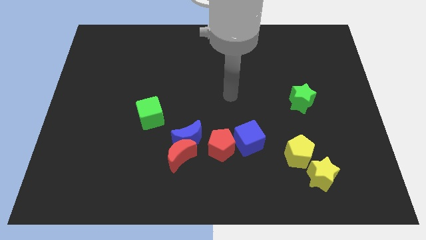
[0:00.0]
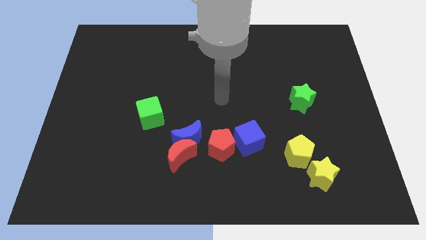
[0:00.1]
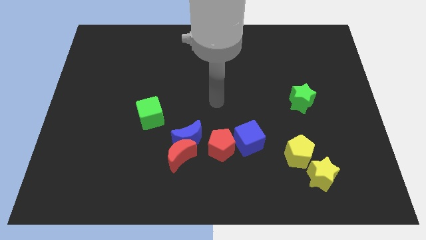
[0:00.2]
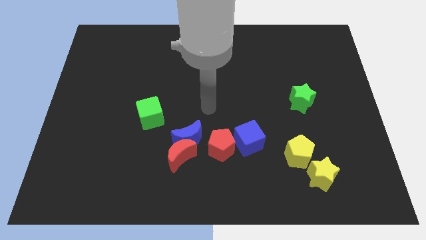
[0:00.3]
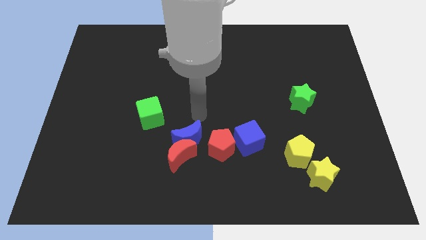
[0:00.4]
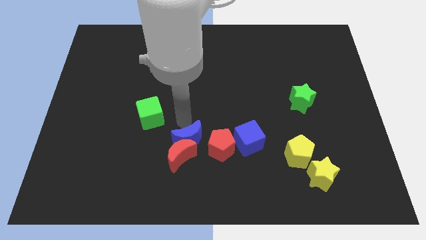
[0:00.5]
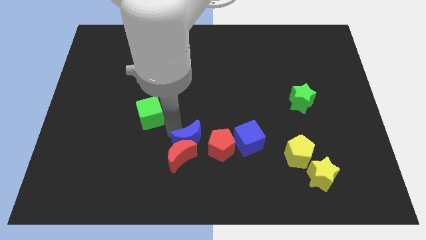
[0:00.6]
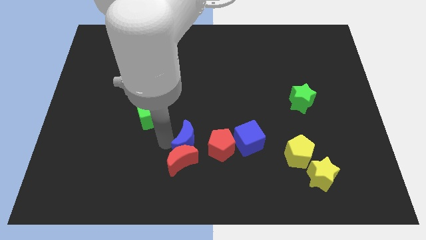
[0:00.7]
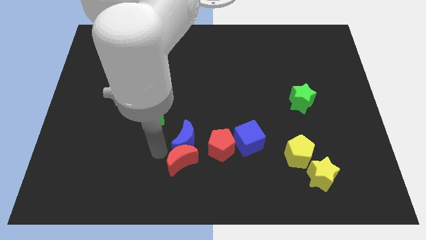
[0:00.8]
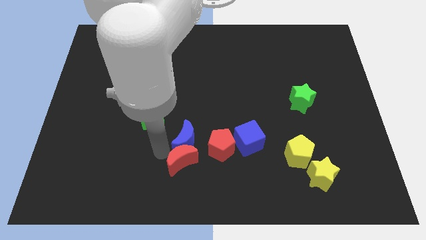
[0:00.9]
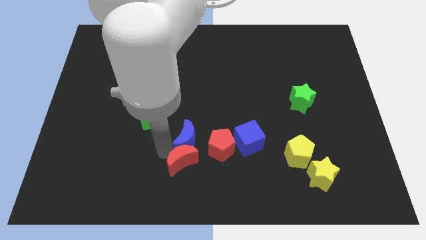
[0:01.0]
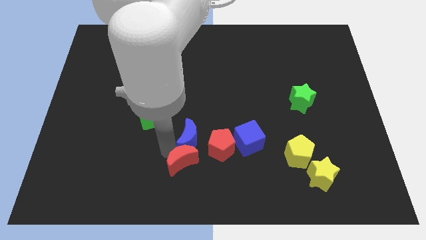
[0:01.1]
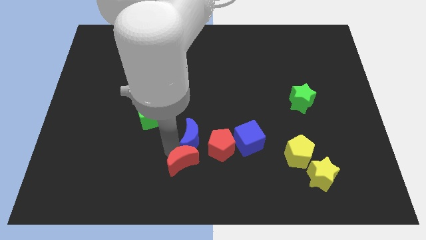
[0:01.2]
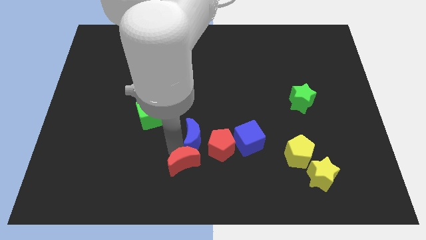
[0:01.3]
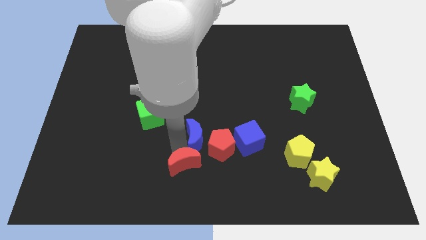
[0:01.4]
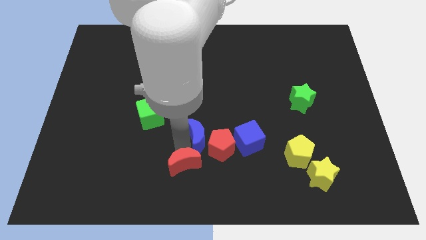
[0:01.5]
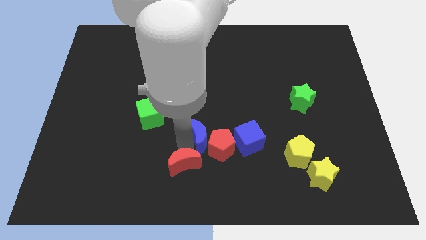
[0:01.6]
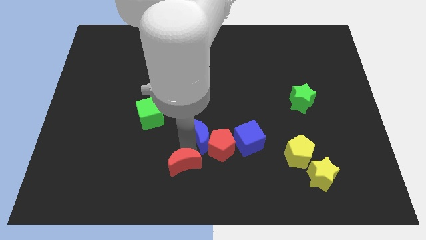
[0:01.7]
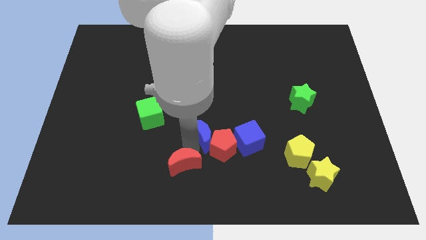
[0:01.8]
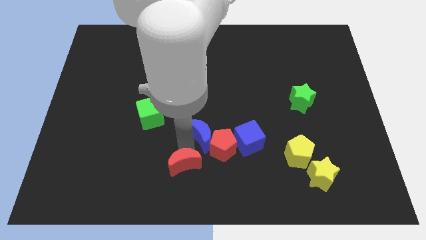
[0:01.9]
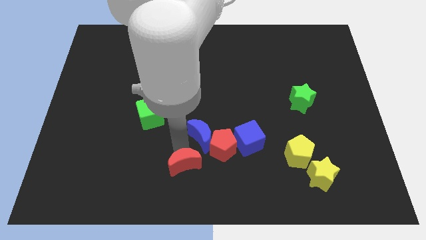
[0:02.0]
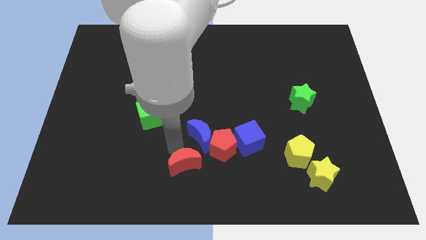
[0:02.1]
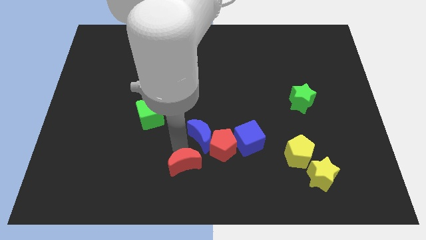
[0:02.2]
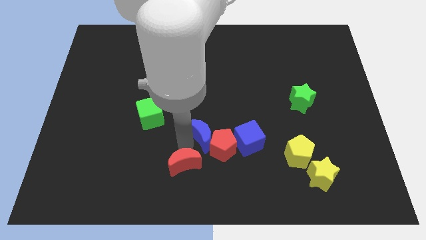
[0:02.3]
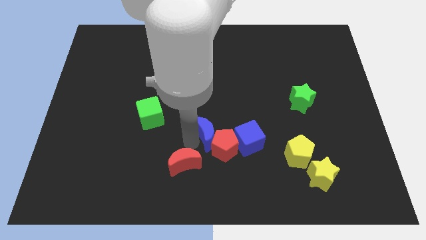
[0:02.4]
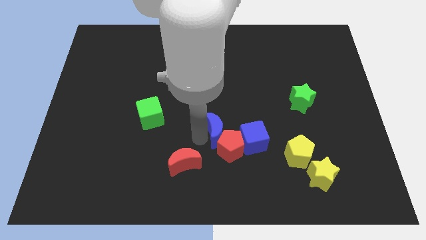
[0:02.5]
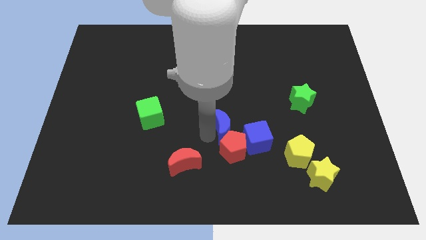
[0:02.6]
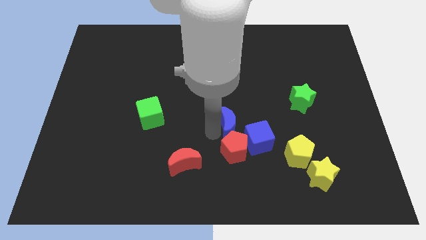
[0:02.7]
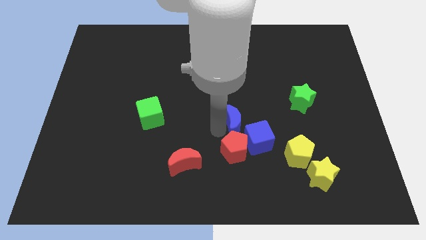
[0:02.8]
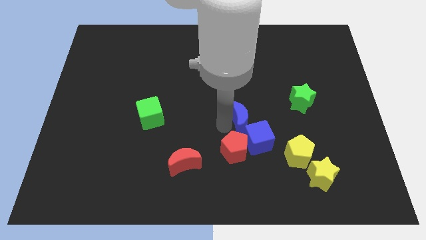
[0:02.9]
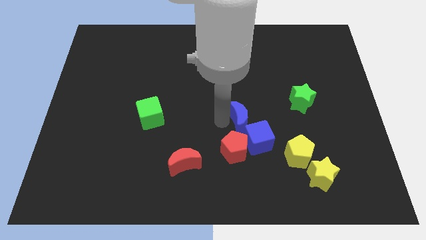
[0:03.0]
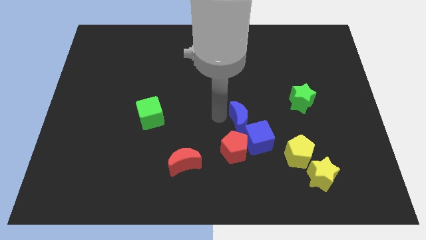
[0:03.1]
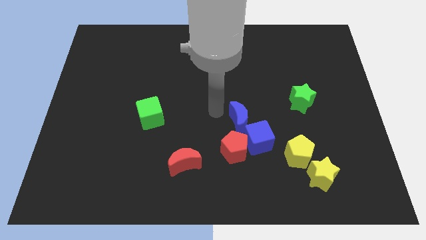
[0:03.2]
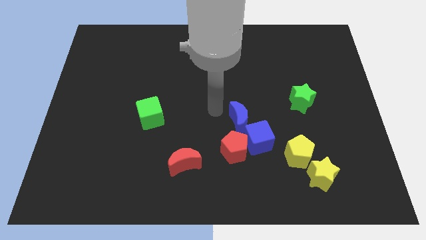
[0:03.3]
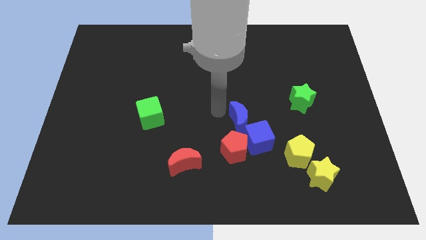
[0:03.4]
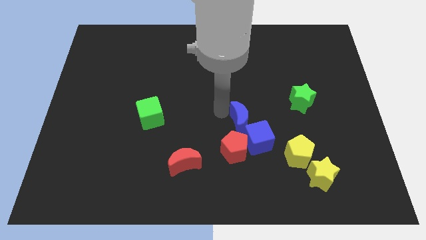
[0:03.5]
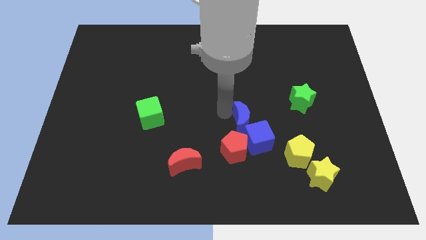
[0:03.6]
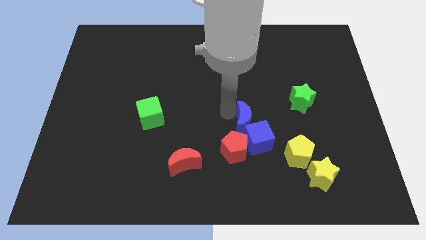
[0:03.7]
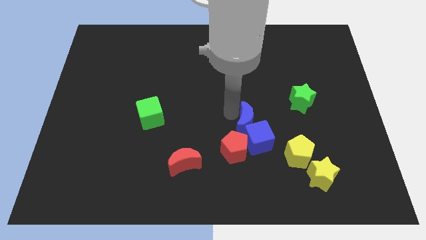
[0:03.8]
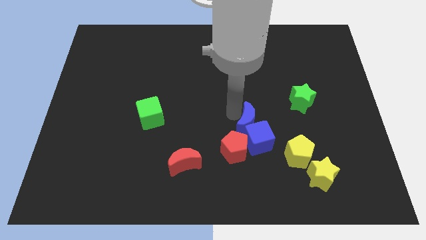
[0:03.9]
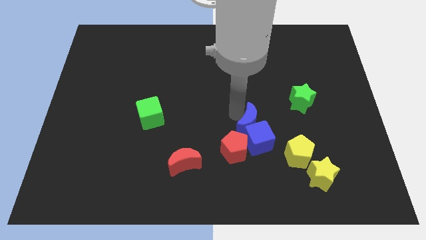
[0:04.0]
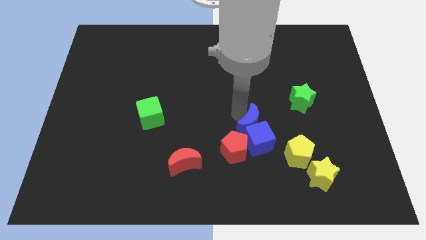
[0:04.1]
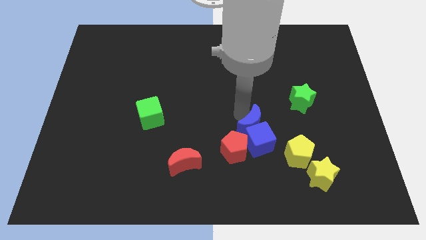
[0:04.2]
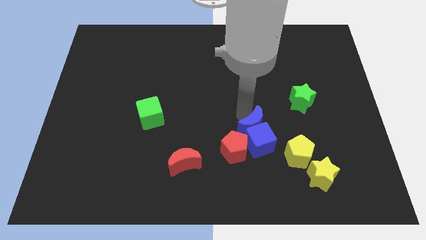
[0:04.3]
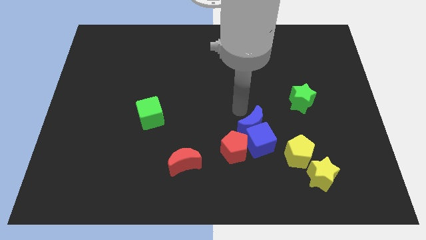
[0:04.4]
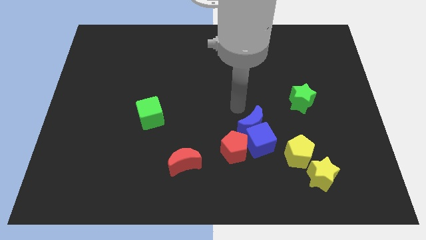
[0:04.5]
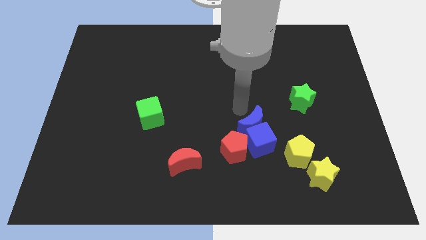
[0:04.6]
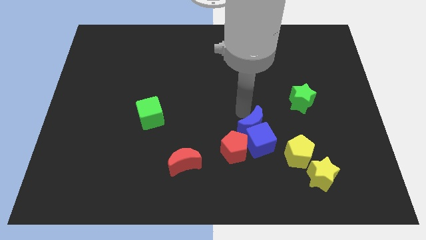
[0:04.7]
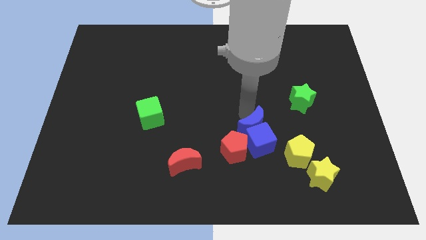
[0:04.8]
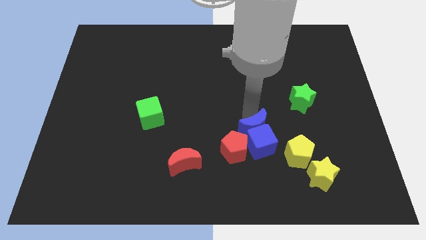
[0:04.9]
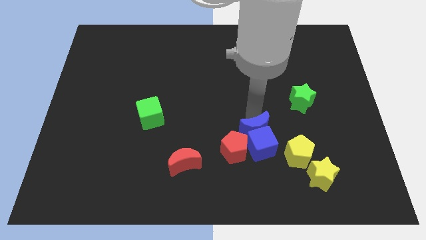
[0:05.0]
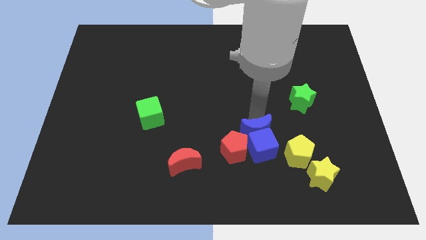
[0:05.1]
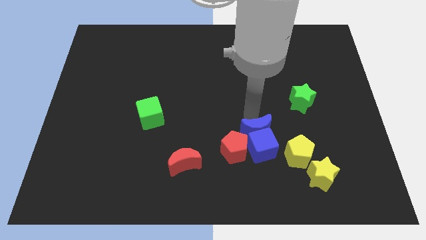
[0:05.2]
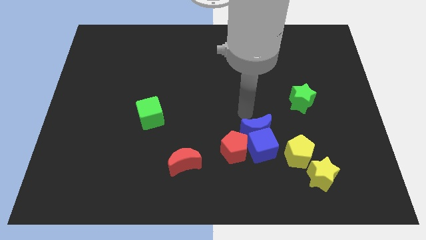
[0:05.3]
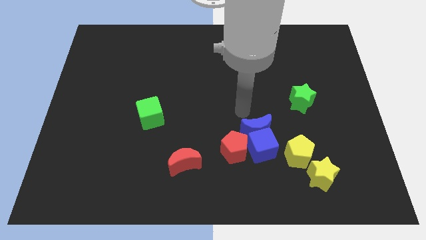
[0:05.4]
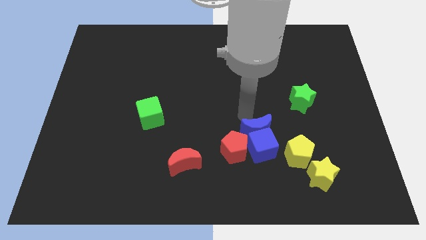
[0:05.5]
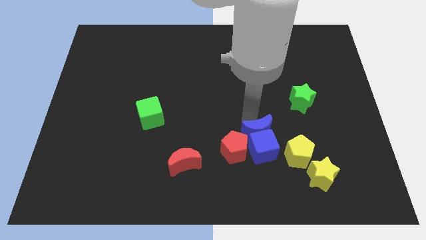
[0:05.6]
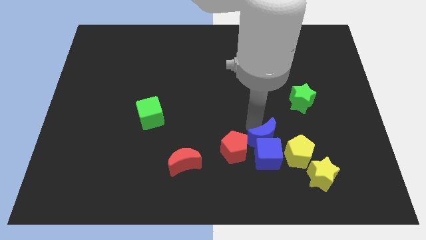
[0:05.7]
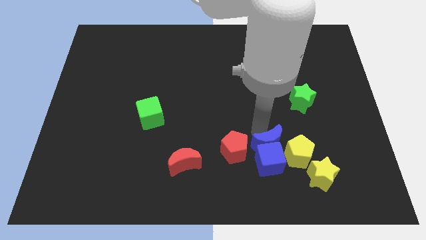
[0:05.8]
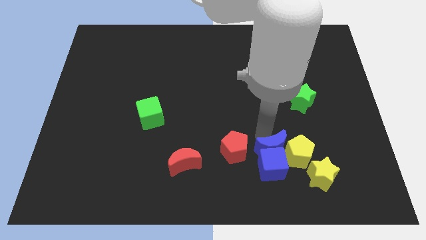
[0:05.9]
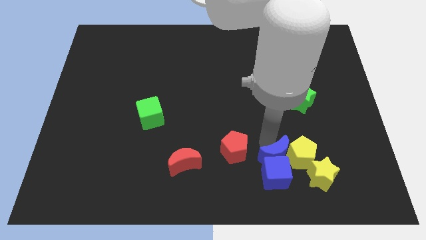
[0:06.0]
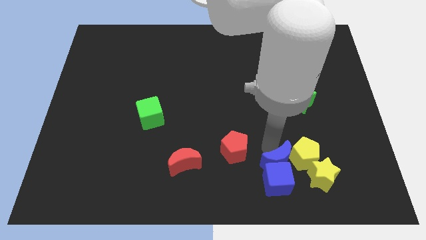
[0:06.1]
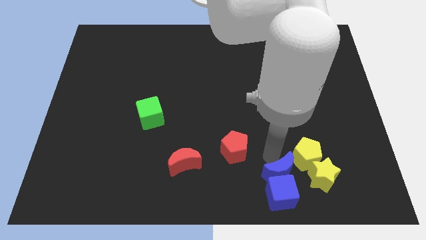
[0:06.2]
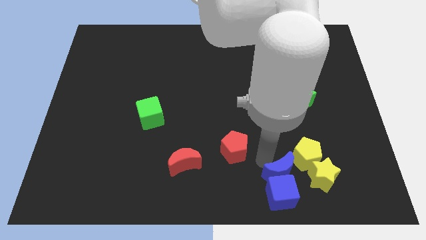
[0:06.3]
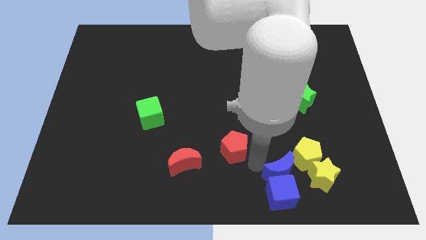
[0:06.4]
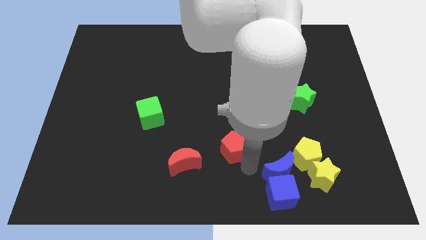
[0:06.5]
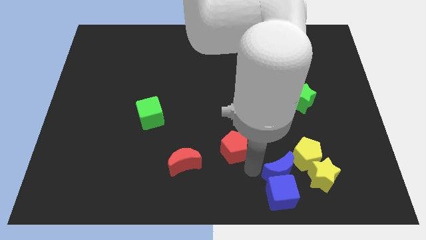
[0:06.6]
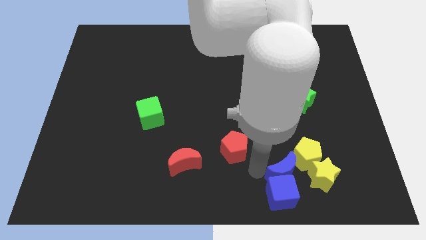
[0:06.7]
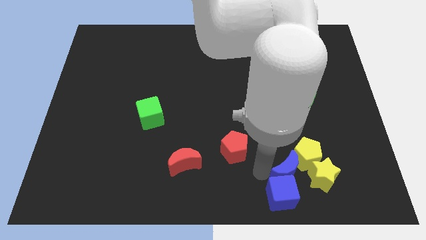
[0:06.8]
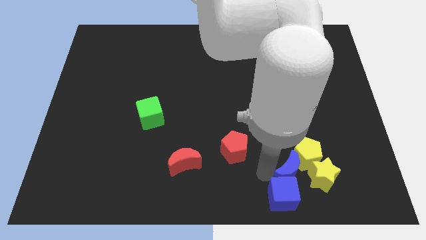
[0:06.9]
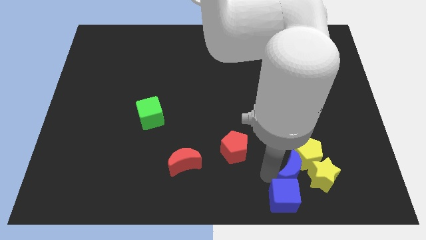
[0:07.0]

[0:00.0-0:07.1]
put the blue moon close to the yellow star
